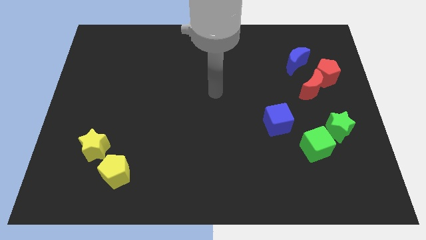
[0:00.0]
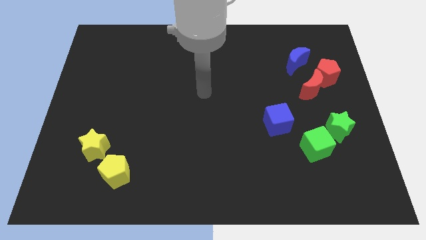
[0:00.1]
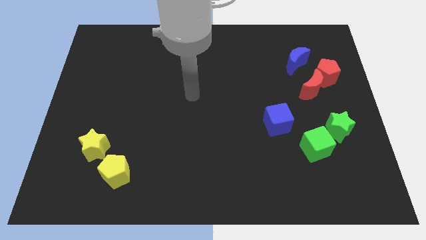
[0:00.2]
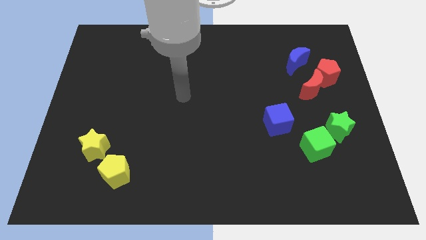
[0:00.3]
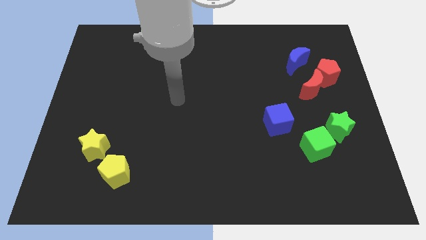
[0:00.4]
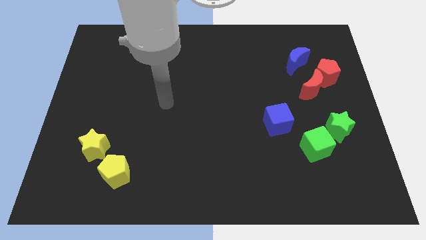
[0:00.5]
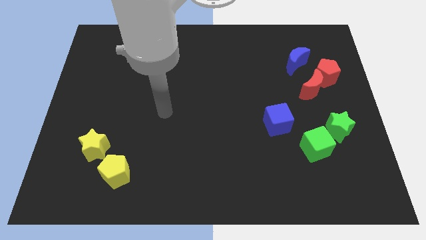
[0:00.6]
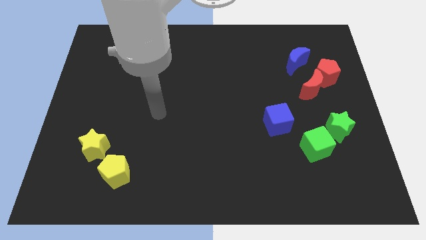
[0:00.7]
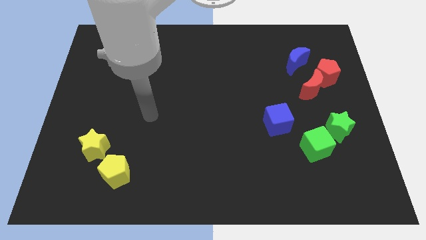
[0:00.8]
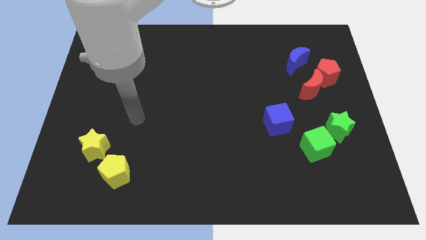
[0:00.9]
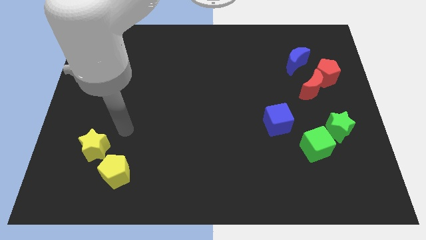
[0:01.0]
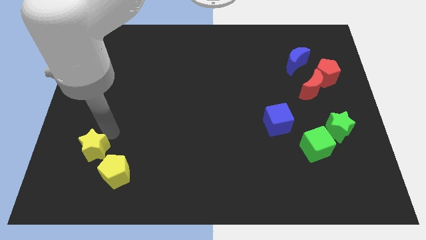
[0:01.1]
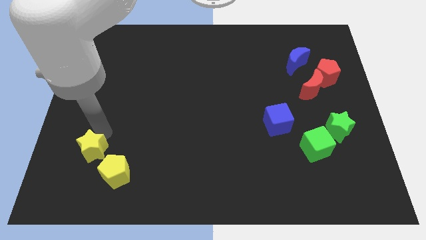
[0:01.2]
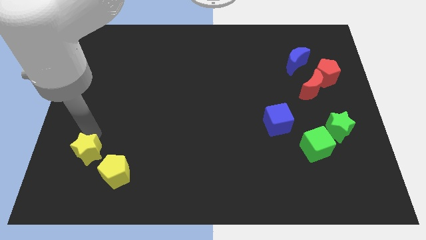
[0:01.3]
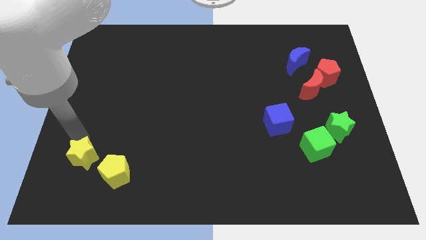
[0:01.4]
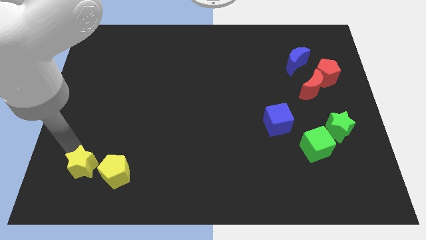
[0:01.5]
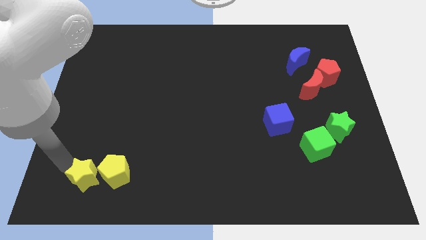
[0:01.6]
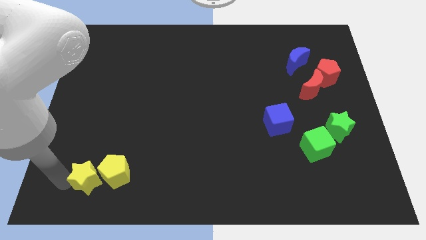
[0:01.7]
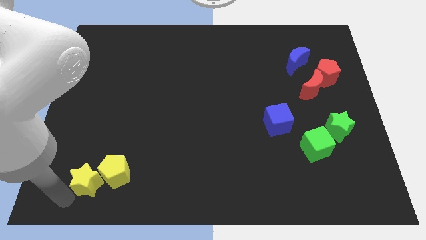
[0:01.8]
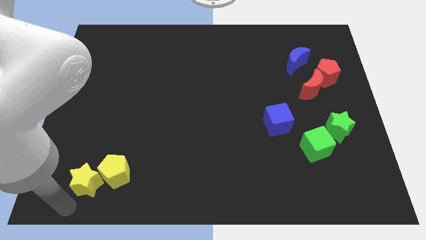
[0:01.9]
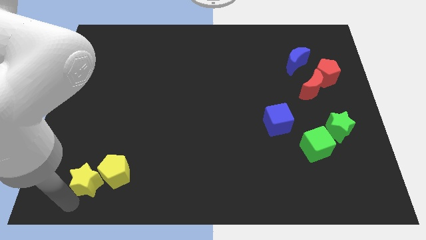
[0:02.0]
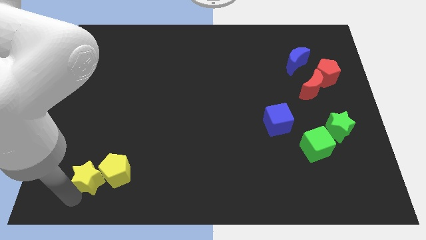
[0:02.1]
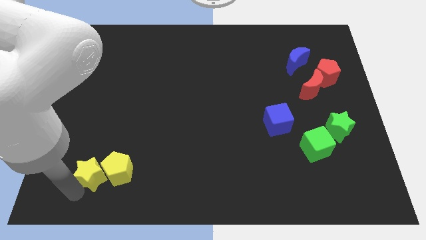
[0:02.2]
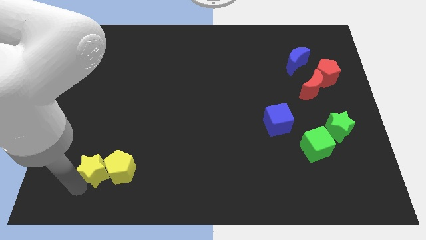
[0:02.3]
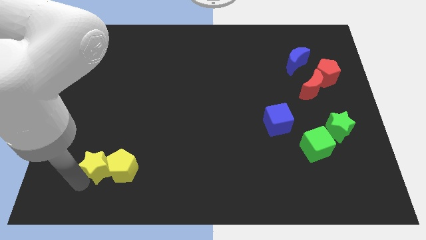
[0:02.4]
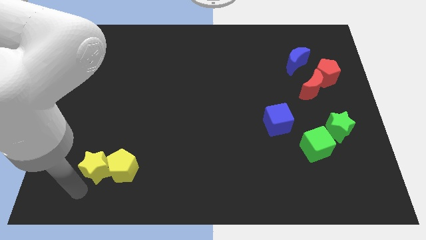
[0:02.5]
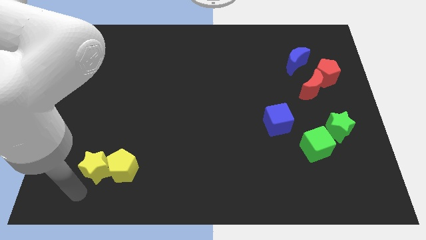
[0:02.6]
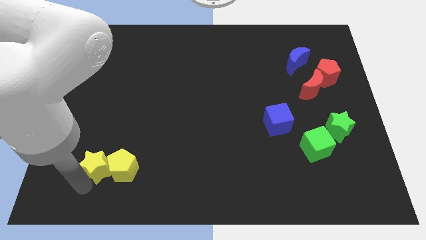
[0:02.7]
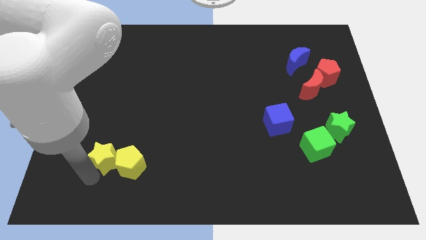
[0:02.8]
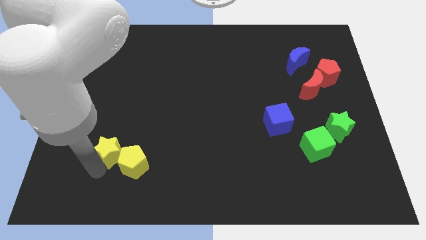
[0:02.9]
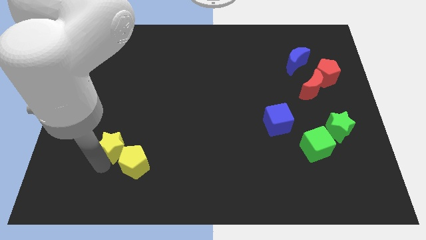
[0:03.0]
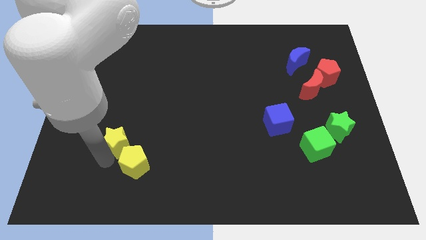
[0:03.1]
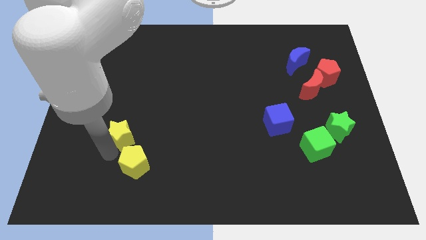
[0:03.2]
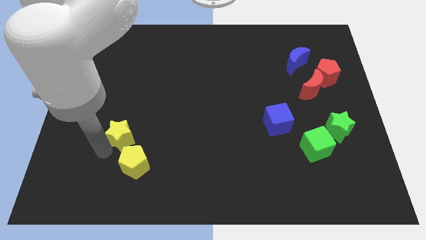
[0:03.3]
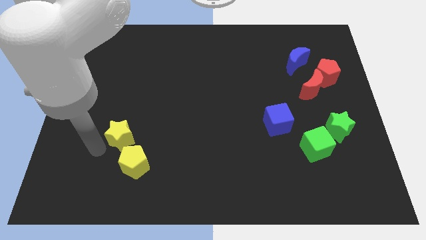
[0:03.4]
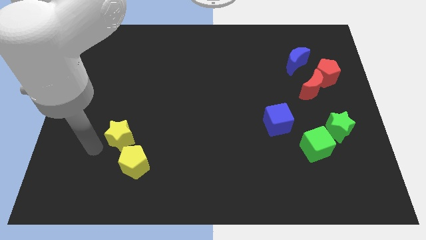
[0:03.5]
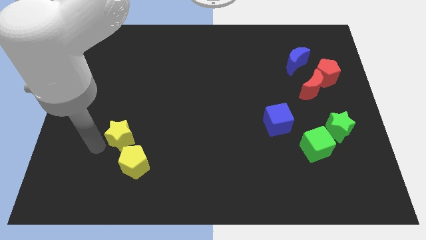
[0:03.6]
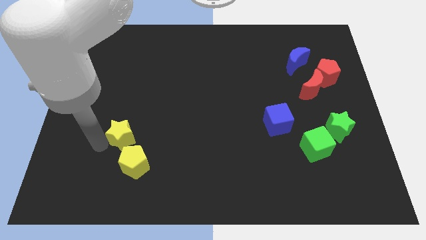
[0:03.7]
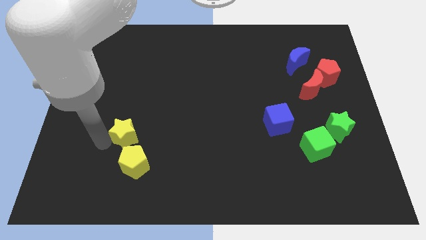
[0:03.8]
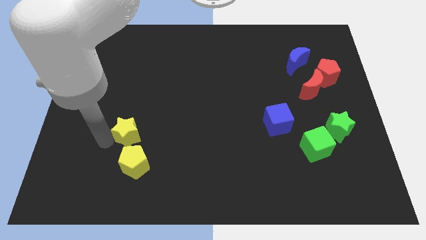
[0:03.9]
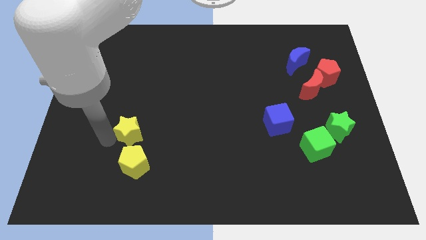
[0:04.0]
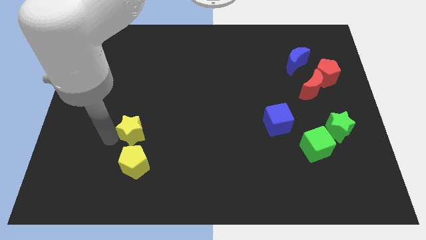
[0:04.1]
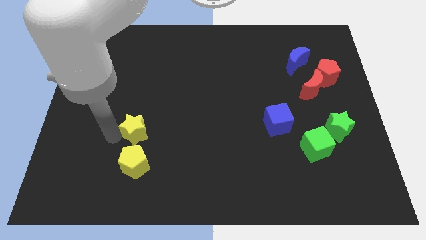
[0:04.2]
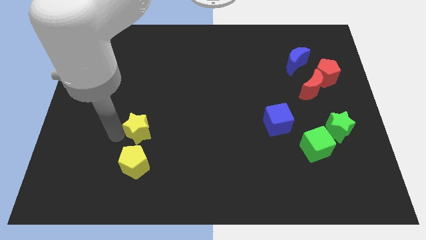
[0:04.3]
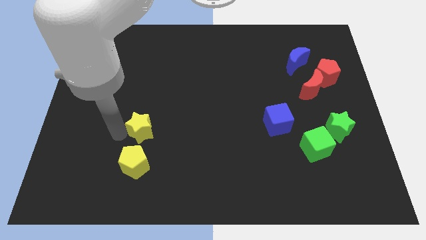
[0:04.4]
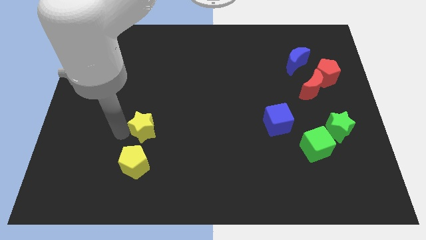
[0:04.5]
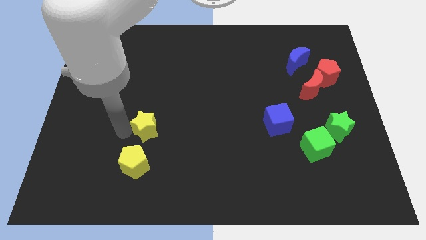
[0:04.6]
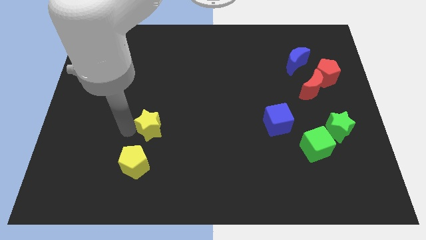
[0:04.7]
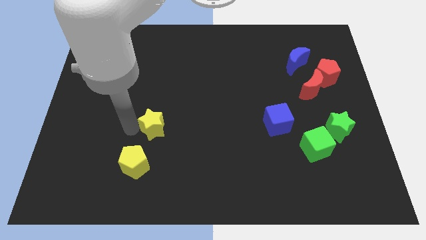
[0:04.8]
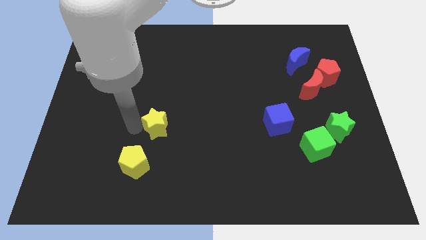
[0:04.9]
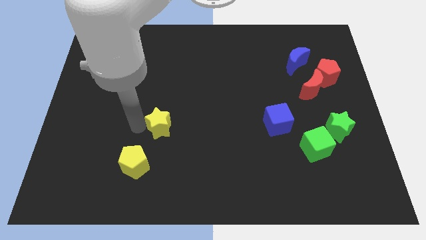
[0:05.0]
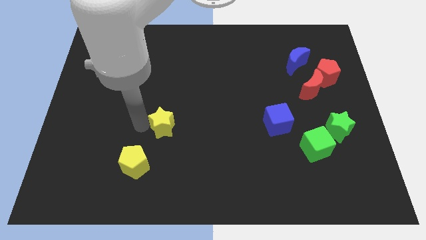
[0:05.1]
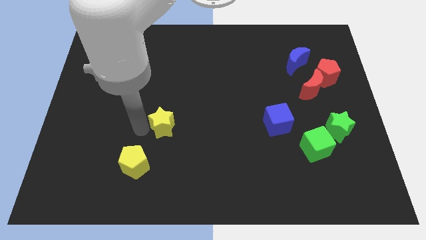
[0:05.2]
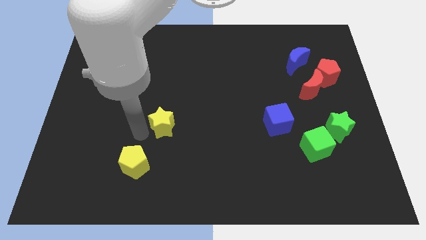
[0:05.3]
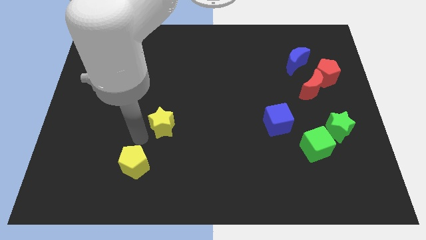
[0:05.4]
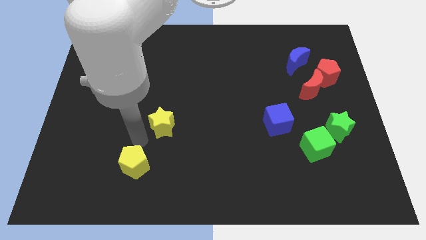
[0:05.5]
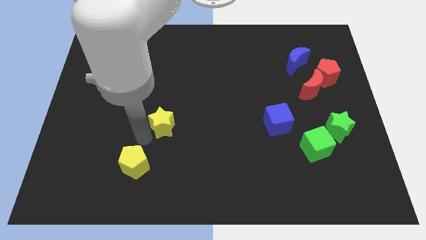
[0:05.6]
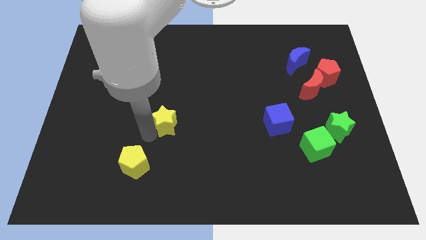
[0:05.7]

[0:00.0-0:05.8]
move the yellow star to the middle of the board

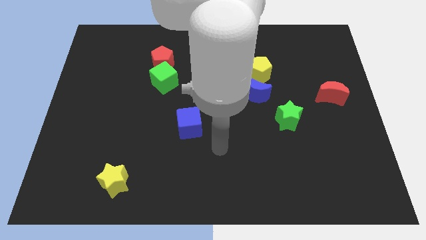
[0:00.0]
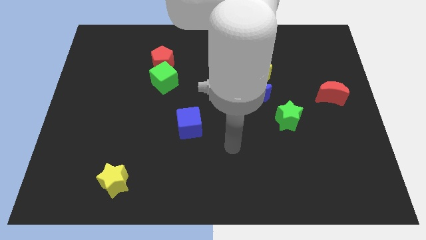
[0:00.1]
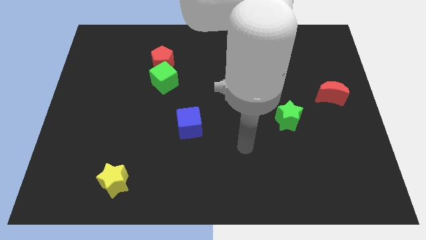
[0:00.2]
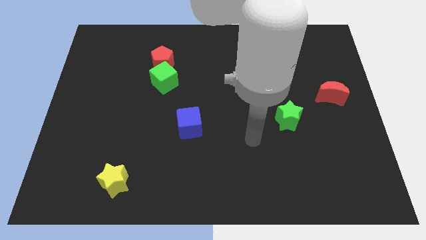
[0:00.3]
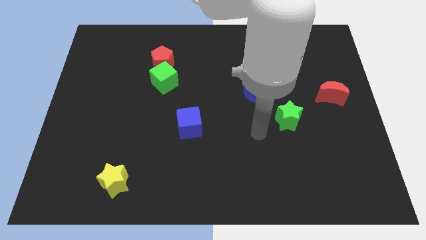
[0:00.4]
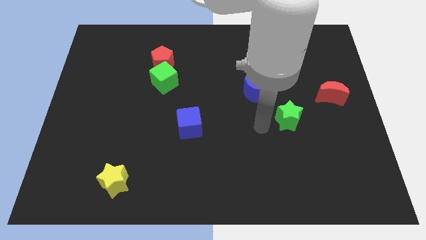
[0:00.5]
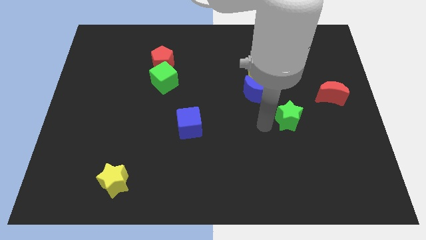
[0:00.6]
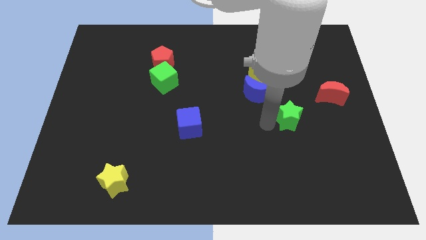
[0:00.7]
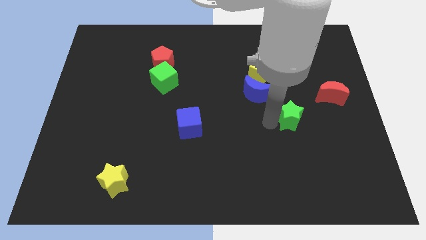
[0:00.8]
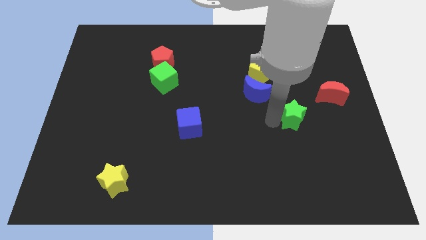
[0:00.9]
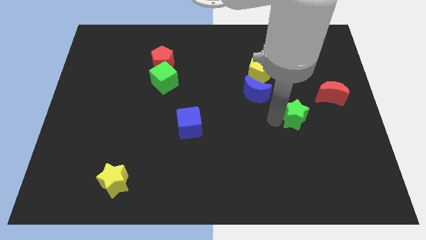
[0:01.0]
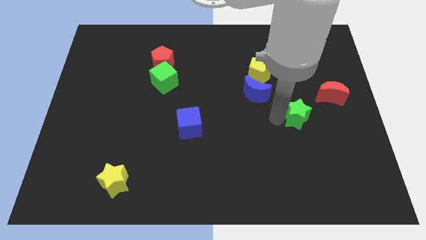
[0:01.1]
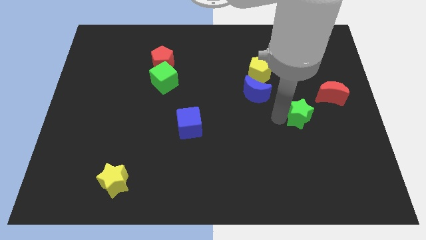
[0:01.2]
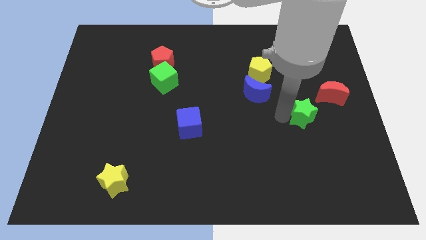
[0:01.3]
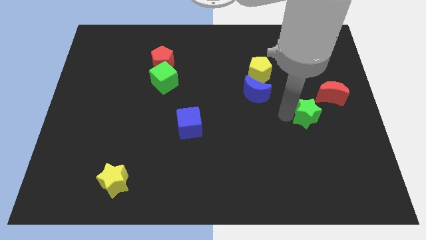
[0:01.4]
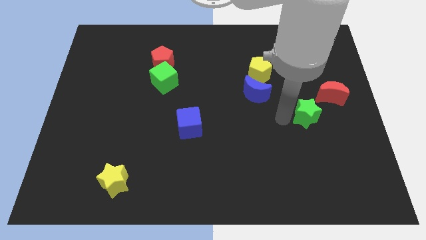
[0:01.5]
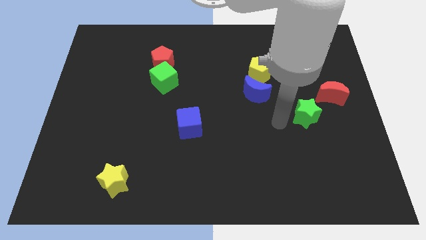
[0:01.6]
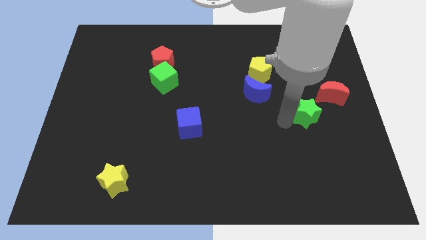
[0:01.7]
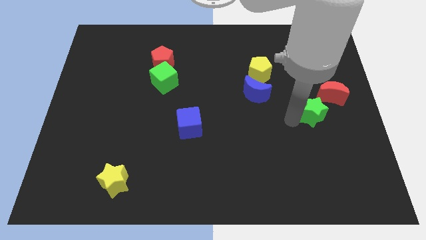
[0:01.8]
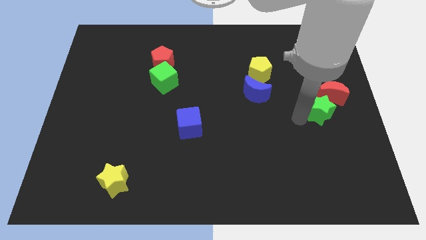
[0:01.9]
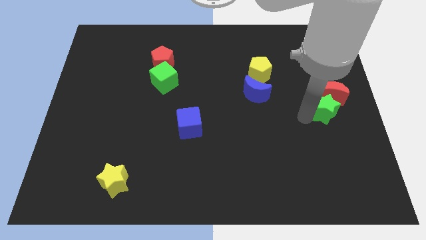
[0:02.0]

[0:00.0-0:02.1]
push the green star to the center right
